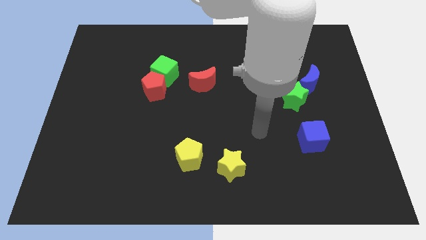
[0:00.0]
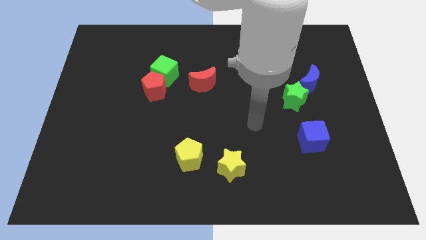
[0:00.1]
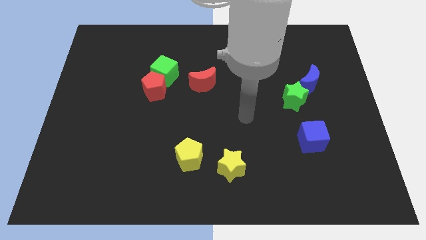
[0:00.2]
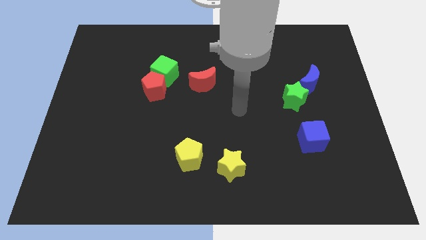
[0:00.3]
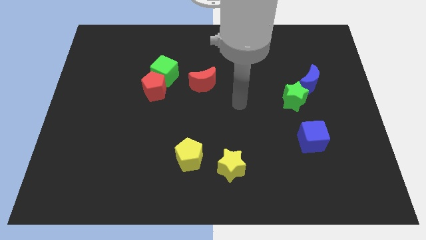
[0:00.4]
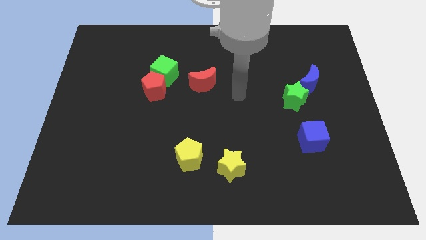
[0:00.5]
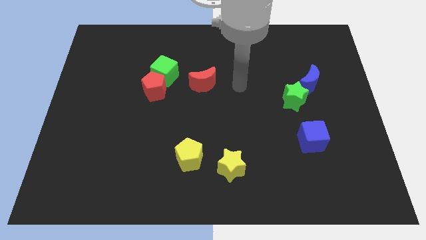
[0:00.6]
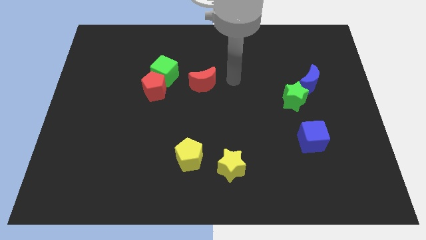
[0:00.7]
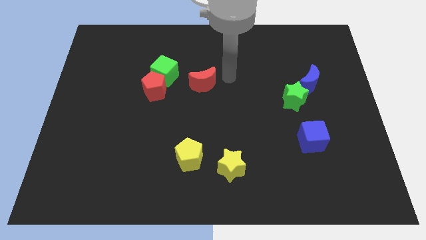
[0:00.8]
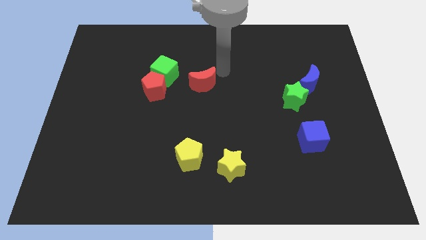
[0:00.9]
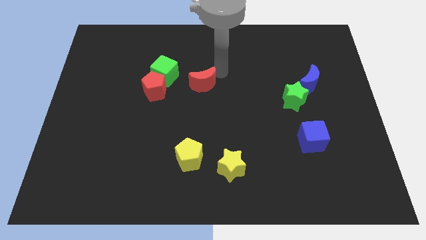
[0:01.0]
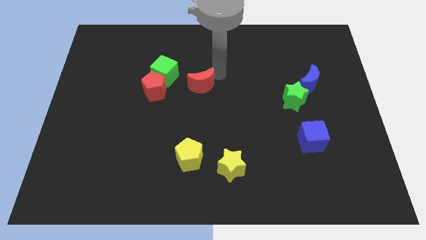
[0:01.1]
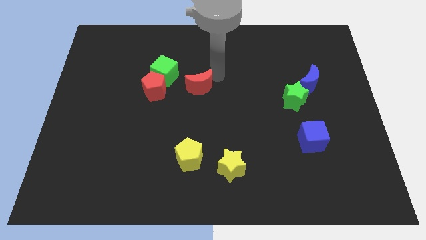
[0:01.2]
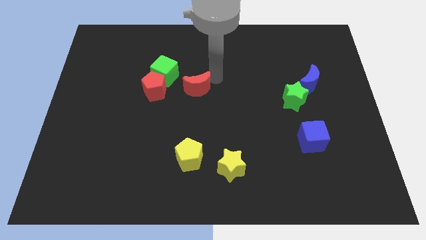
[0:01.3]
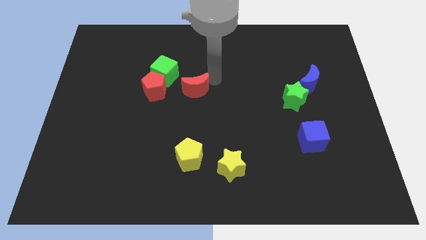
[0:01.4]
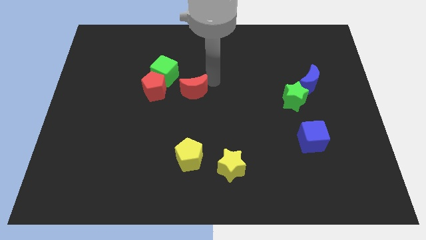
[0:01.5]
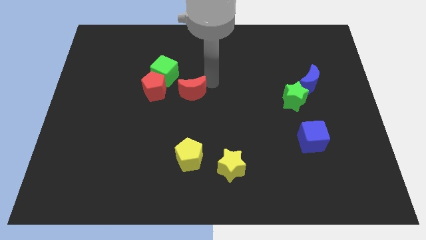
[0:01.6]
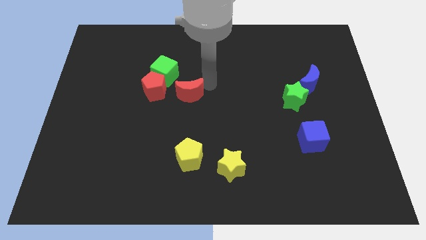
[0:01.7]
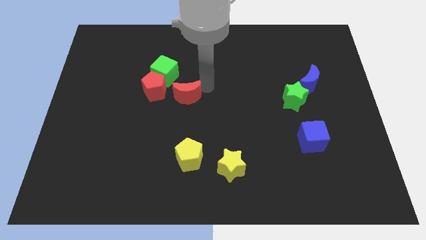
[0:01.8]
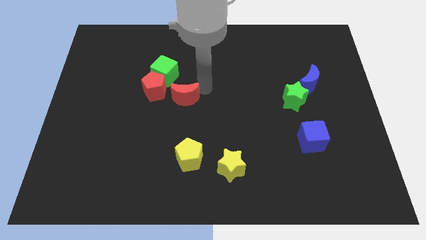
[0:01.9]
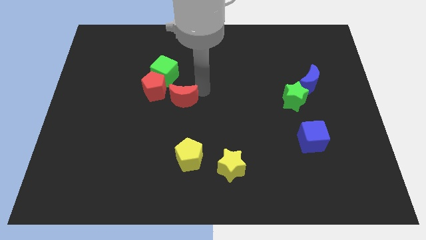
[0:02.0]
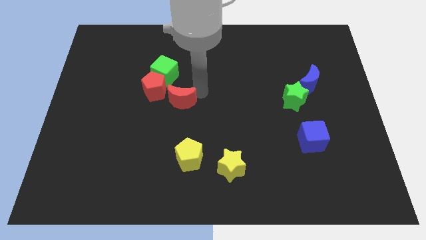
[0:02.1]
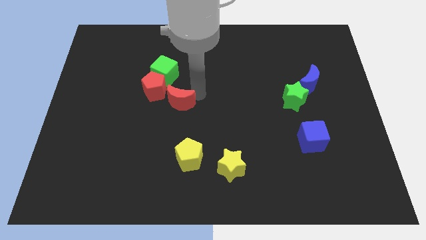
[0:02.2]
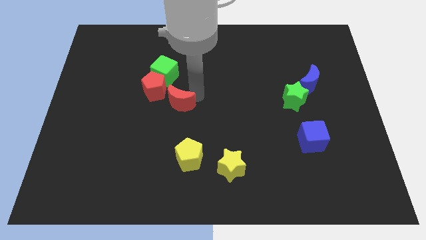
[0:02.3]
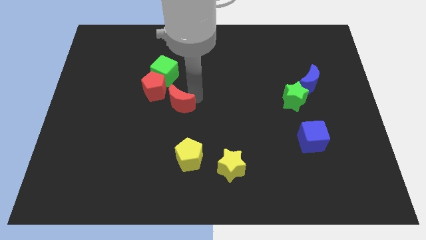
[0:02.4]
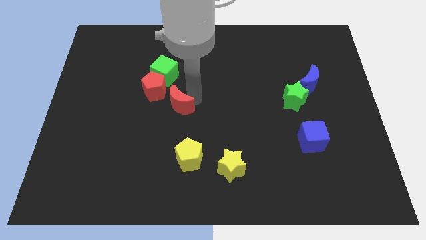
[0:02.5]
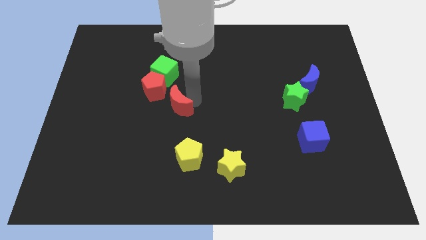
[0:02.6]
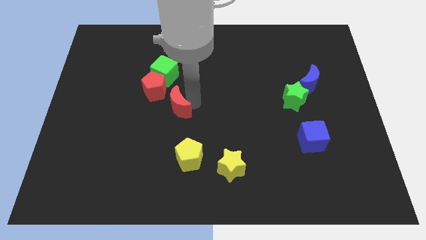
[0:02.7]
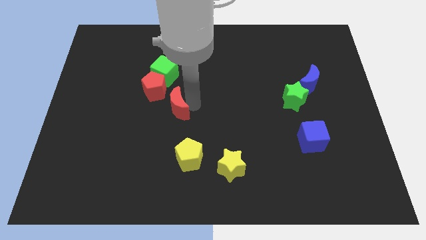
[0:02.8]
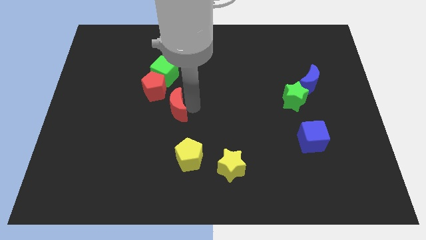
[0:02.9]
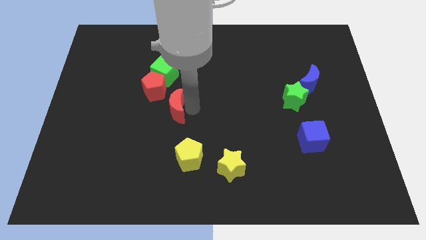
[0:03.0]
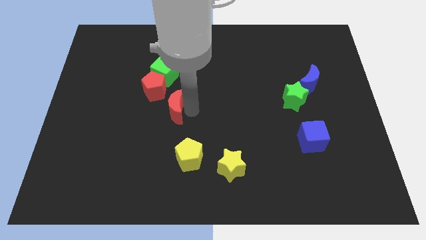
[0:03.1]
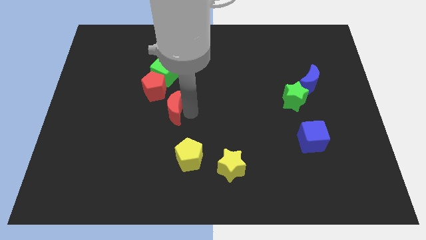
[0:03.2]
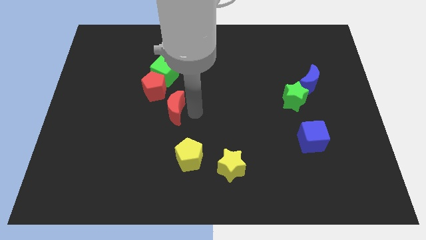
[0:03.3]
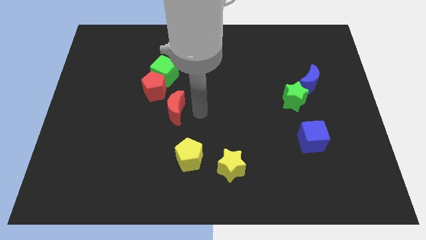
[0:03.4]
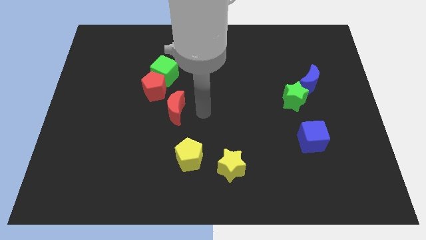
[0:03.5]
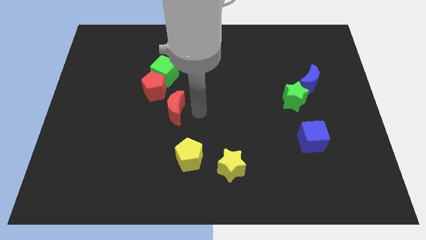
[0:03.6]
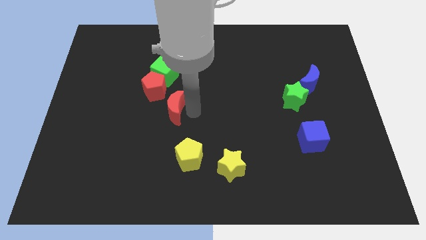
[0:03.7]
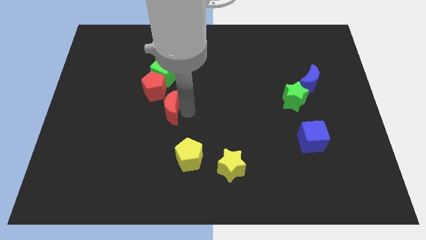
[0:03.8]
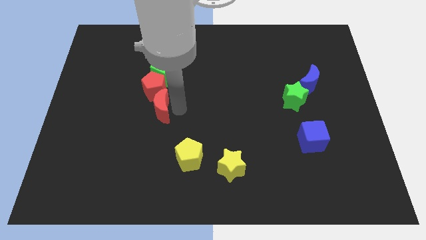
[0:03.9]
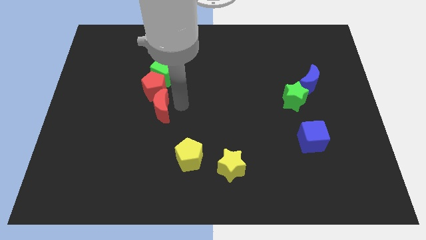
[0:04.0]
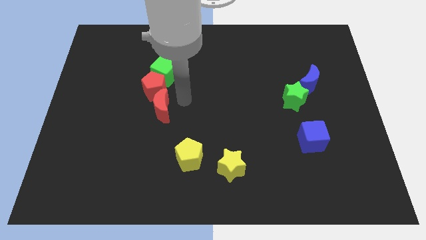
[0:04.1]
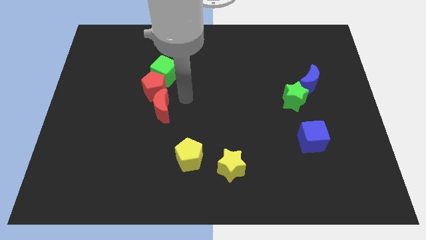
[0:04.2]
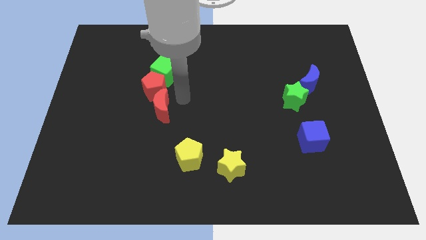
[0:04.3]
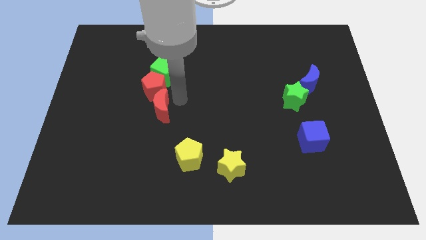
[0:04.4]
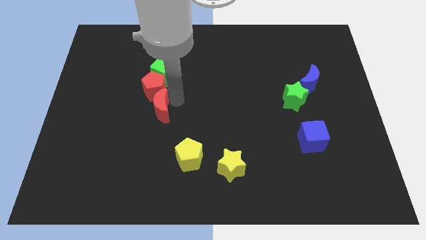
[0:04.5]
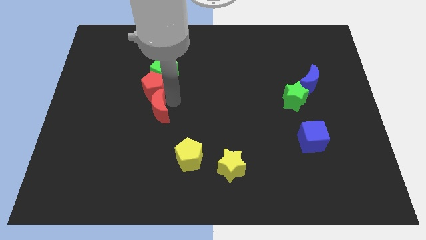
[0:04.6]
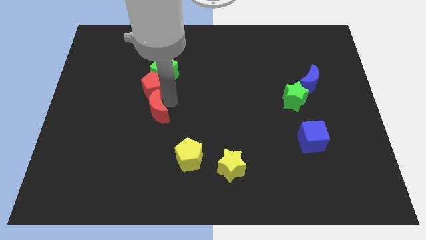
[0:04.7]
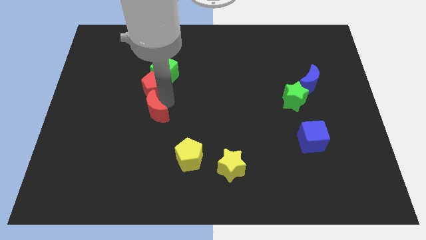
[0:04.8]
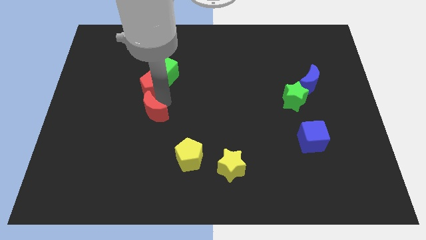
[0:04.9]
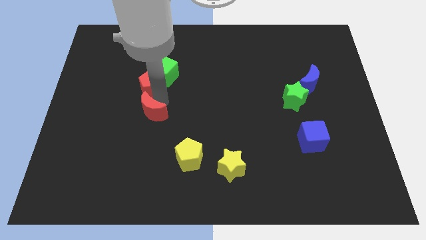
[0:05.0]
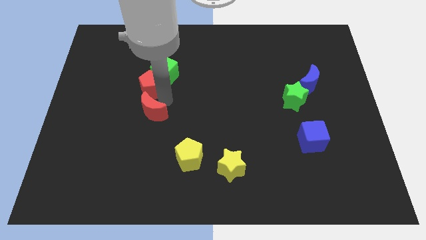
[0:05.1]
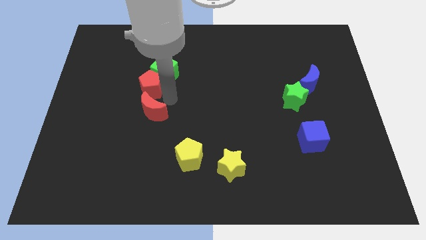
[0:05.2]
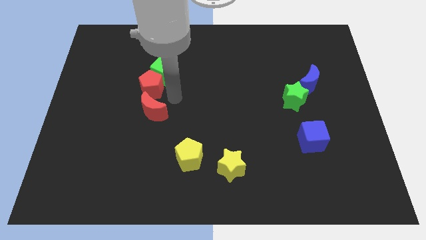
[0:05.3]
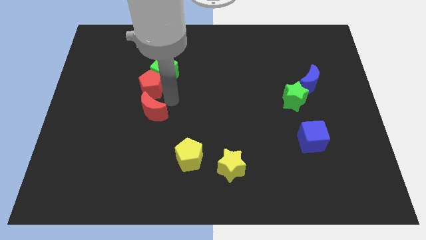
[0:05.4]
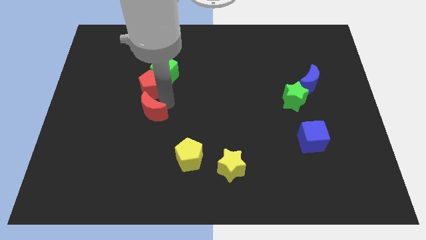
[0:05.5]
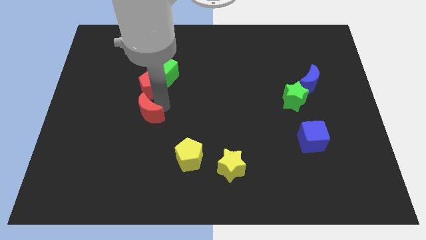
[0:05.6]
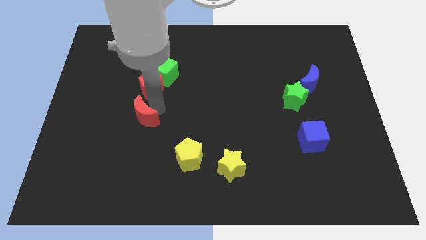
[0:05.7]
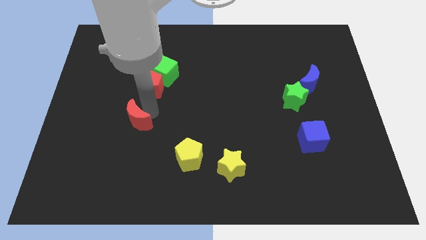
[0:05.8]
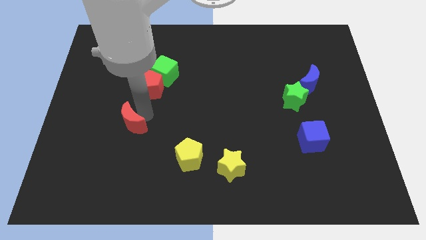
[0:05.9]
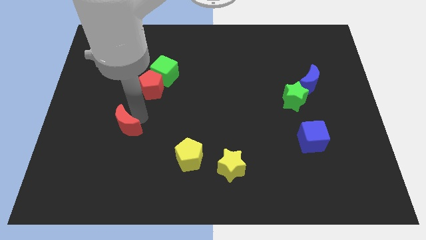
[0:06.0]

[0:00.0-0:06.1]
slide the red moon down and to the left diagonally

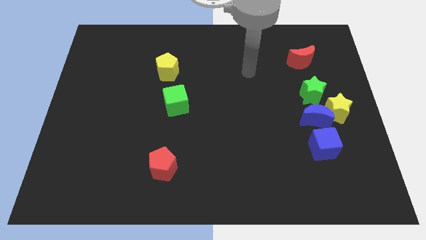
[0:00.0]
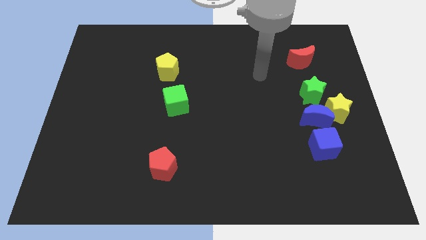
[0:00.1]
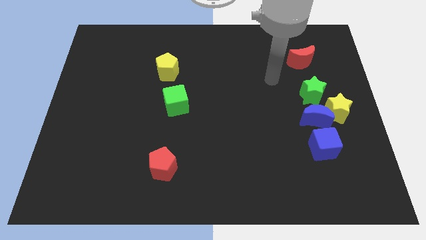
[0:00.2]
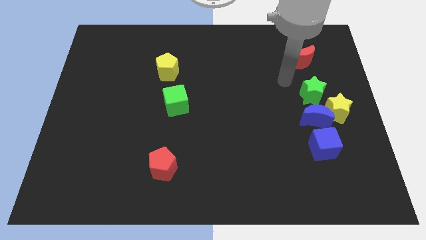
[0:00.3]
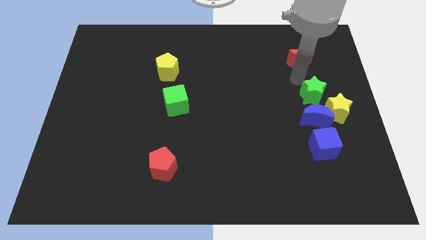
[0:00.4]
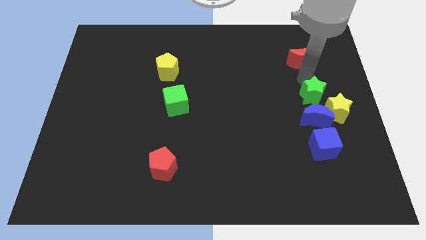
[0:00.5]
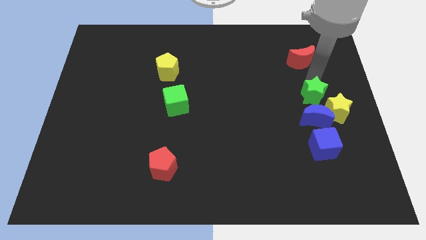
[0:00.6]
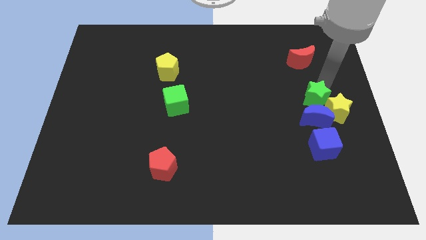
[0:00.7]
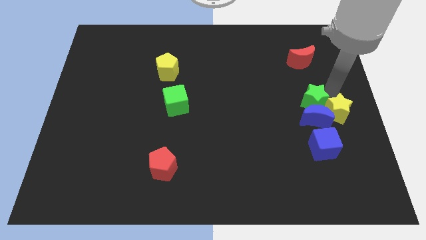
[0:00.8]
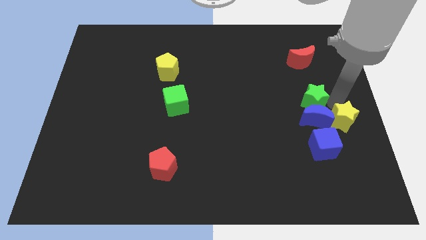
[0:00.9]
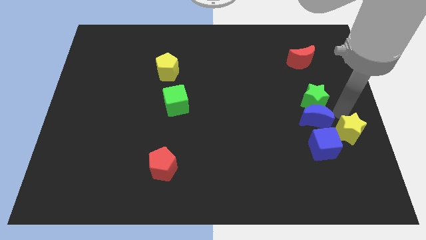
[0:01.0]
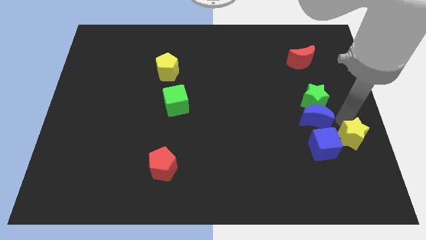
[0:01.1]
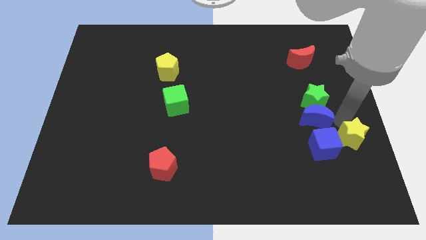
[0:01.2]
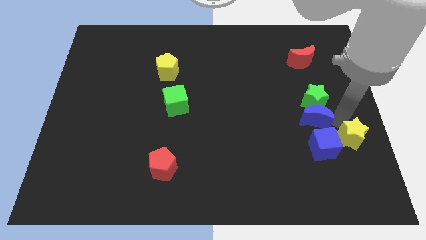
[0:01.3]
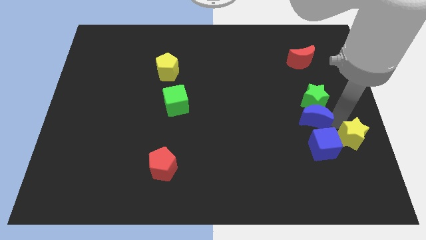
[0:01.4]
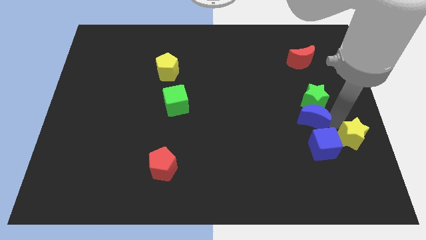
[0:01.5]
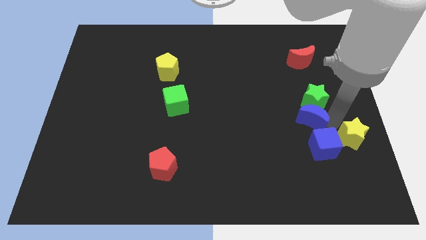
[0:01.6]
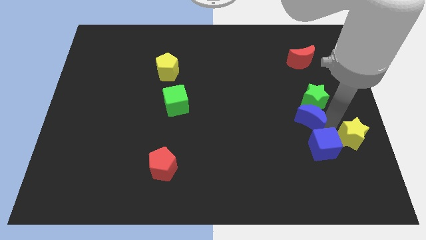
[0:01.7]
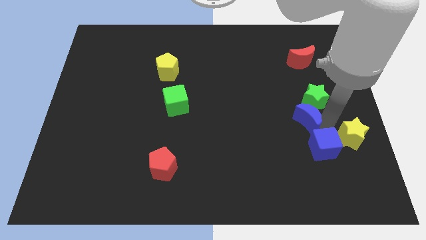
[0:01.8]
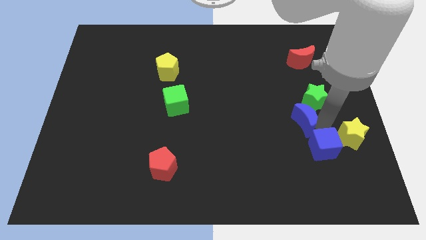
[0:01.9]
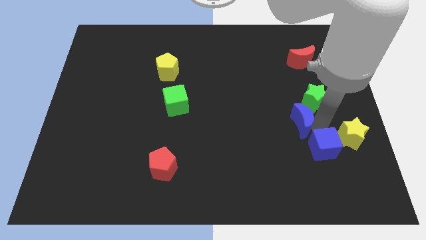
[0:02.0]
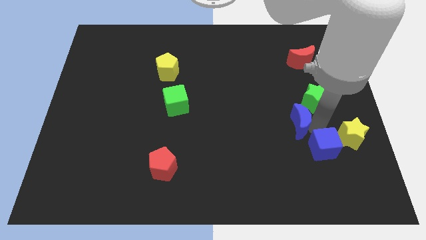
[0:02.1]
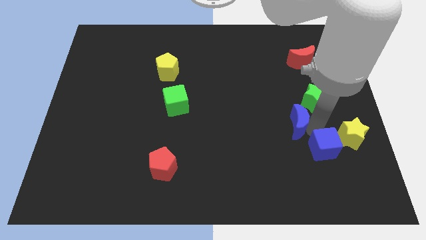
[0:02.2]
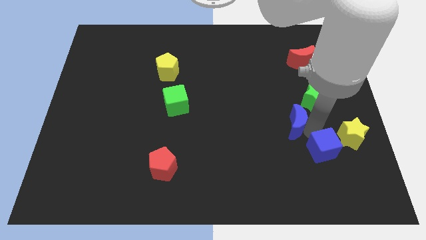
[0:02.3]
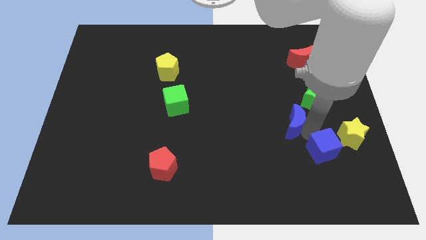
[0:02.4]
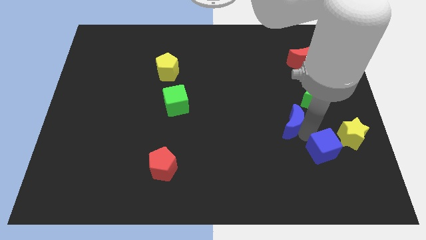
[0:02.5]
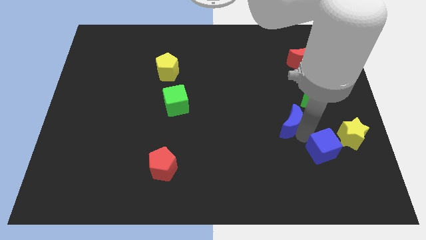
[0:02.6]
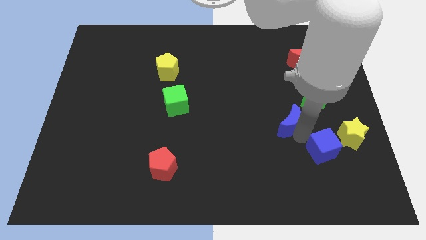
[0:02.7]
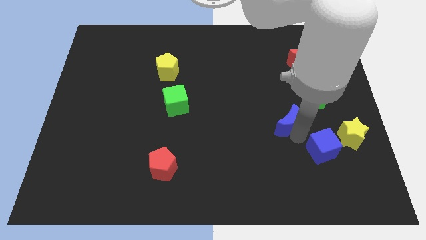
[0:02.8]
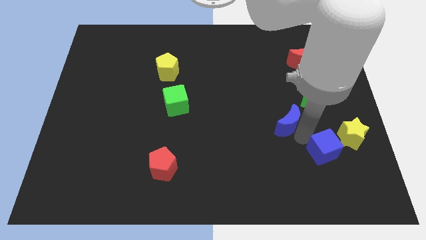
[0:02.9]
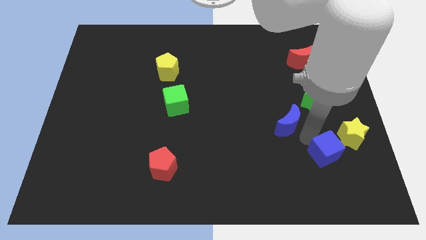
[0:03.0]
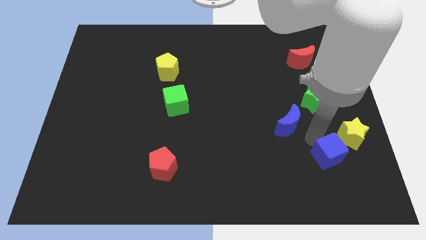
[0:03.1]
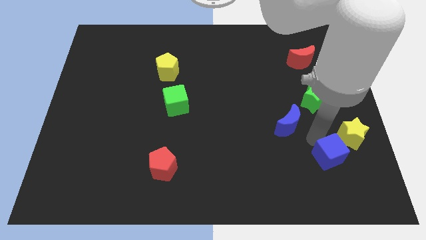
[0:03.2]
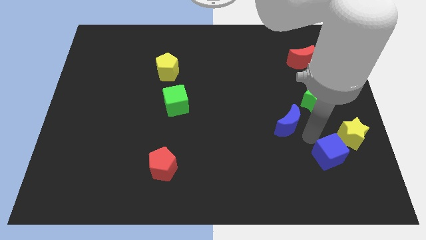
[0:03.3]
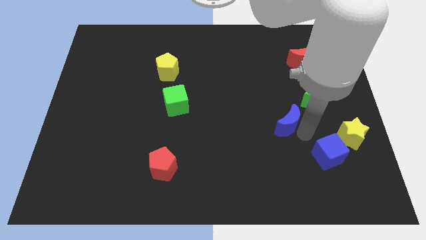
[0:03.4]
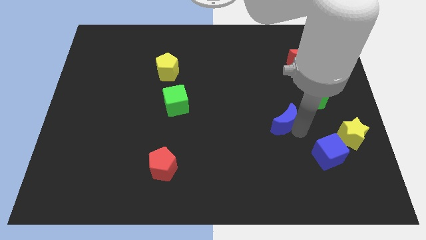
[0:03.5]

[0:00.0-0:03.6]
slightly slide the blue moon to the left
